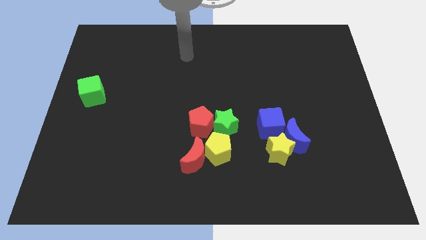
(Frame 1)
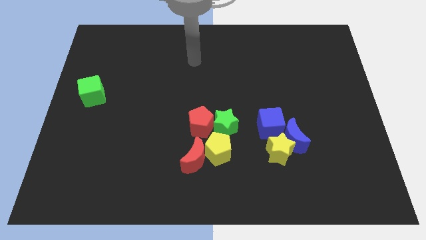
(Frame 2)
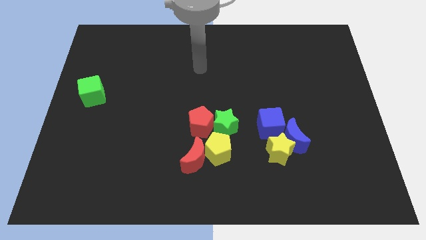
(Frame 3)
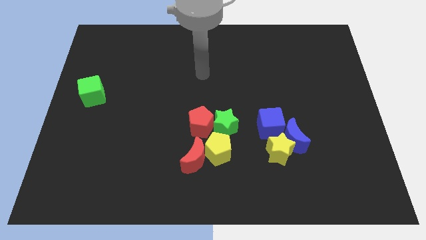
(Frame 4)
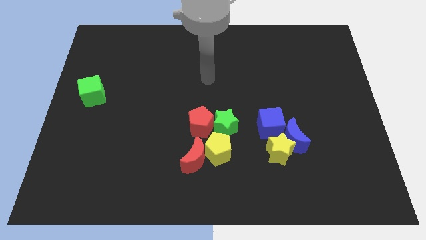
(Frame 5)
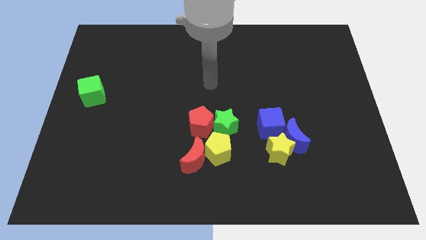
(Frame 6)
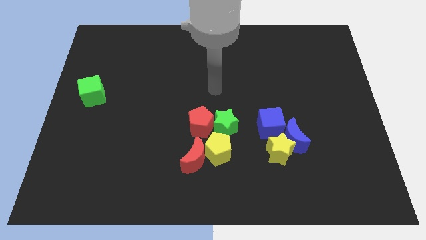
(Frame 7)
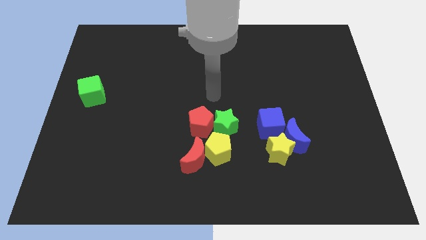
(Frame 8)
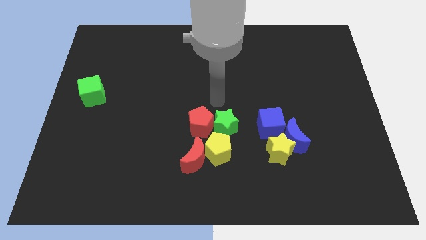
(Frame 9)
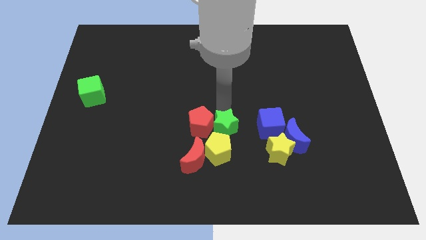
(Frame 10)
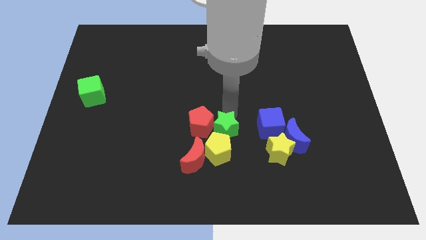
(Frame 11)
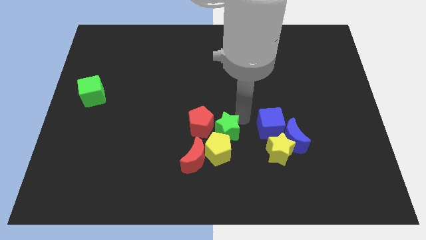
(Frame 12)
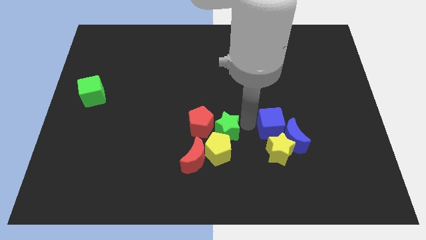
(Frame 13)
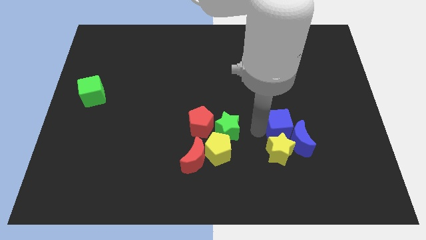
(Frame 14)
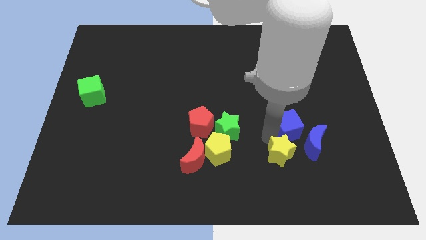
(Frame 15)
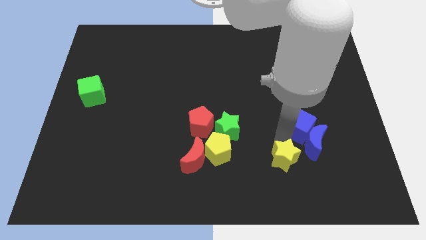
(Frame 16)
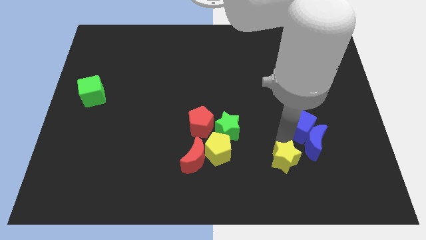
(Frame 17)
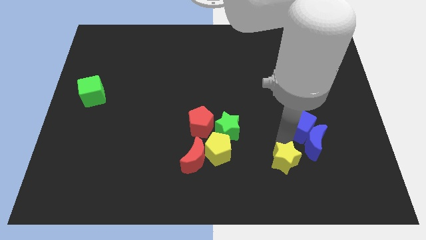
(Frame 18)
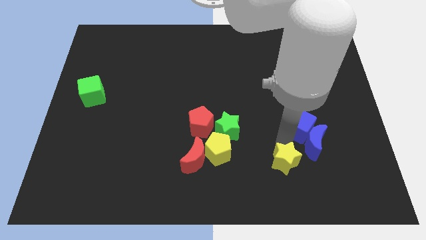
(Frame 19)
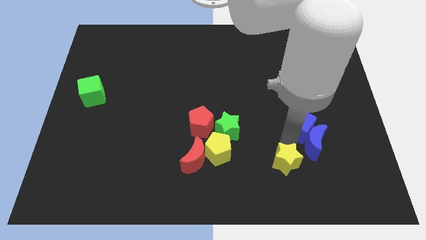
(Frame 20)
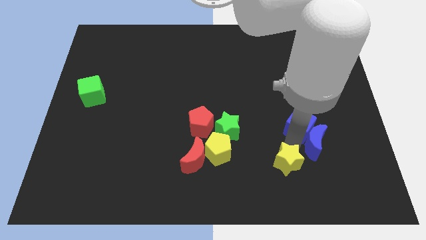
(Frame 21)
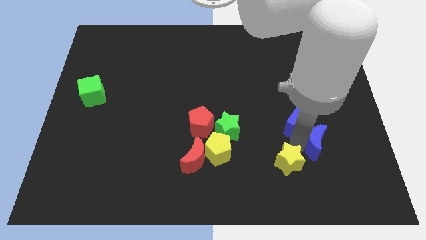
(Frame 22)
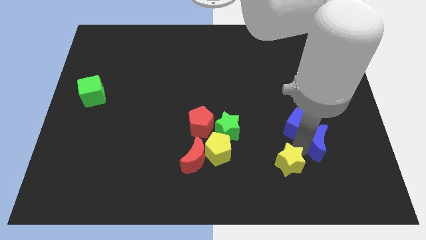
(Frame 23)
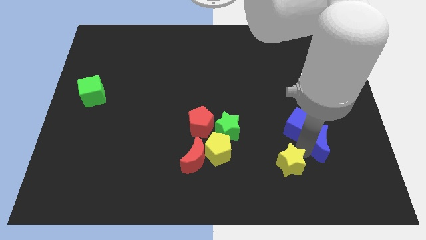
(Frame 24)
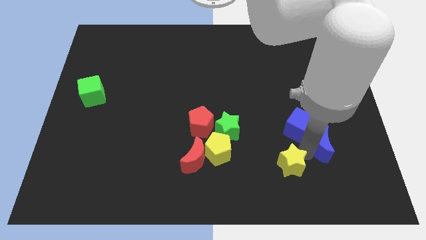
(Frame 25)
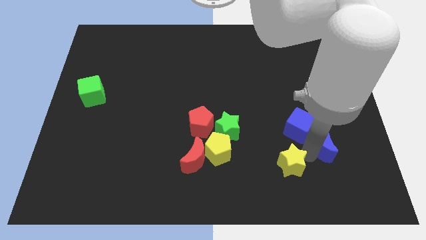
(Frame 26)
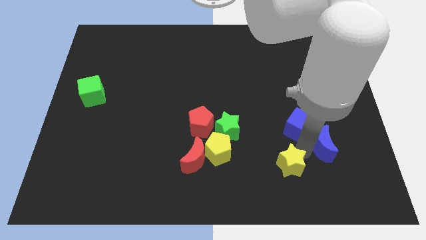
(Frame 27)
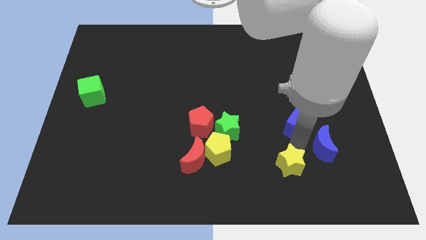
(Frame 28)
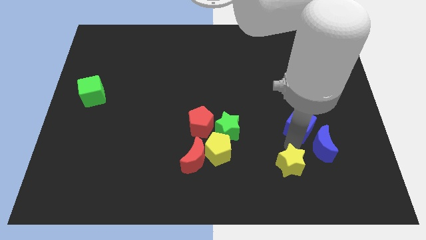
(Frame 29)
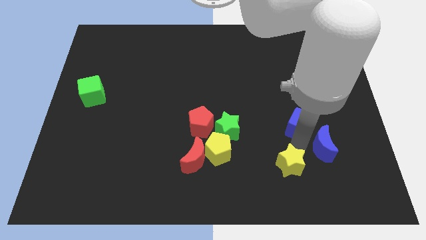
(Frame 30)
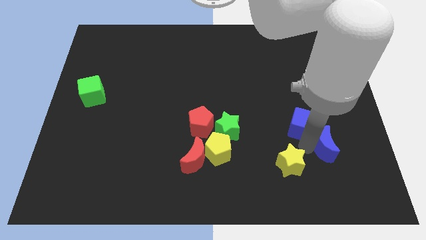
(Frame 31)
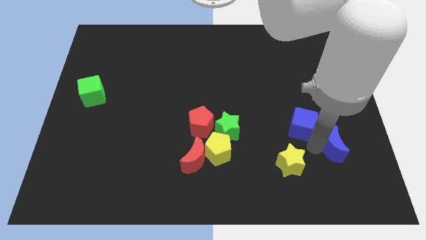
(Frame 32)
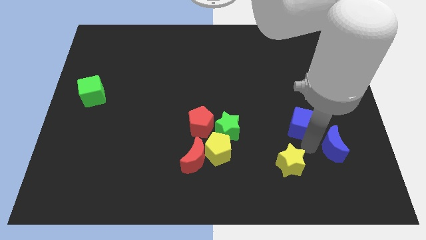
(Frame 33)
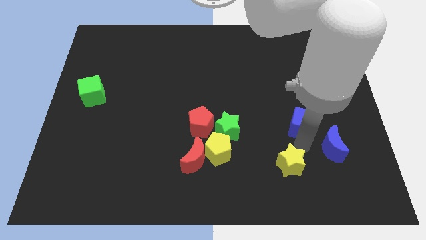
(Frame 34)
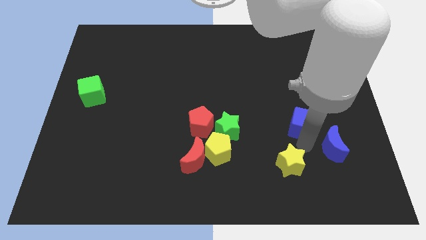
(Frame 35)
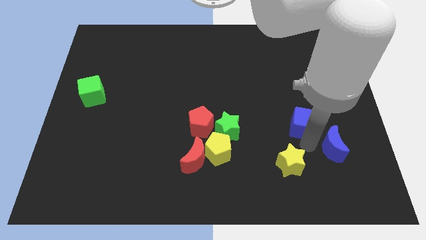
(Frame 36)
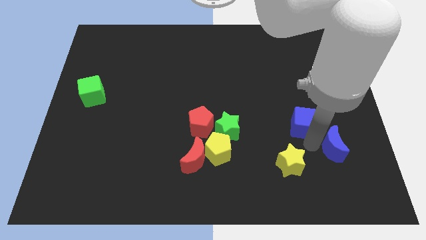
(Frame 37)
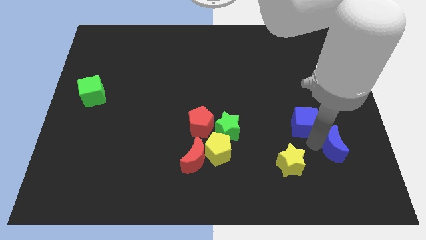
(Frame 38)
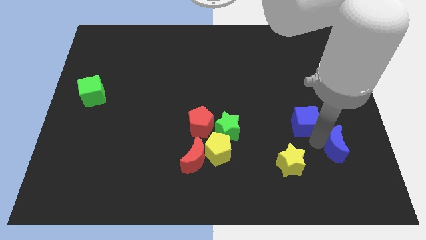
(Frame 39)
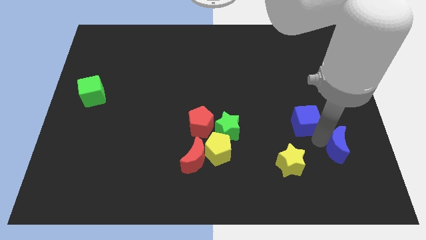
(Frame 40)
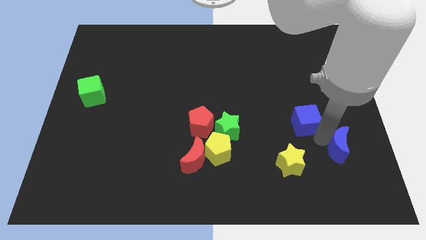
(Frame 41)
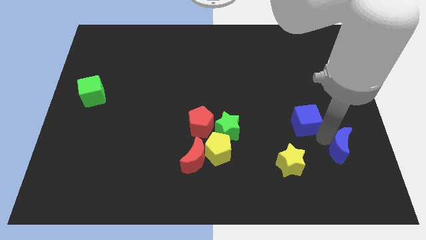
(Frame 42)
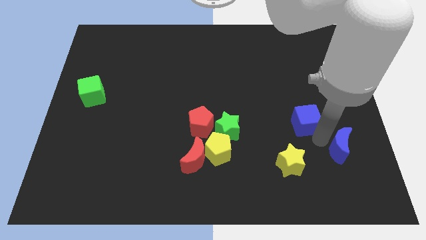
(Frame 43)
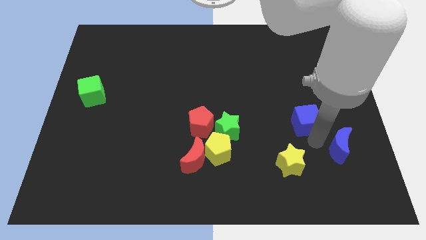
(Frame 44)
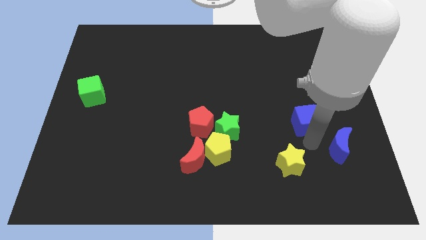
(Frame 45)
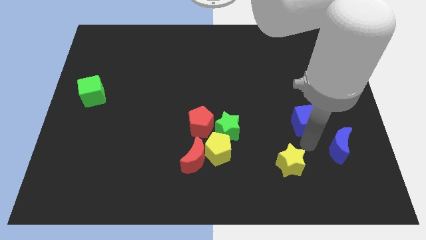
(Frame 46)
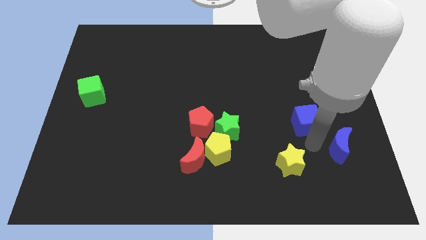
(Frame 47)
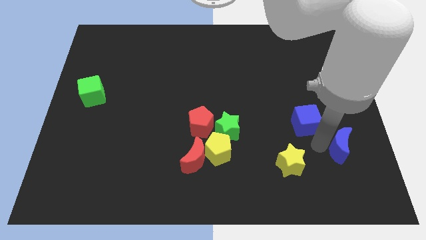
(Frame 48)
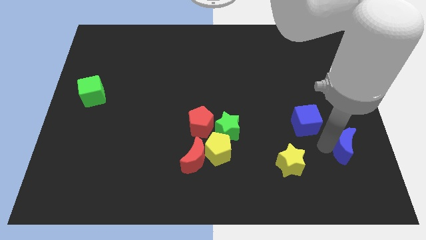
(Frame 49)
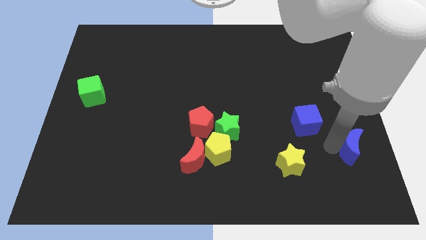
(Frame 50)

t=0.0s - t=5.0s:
separate the blue moon from the yellow star and blue cube

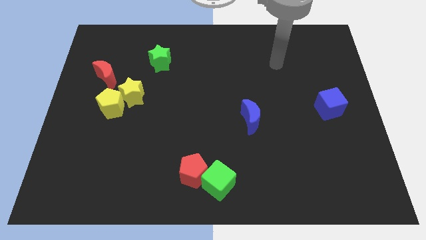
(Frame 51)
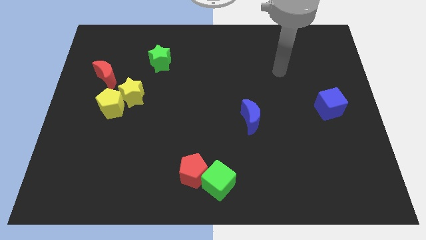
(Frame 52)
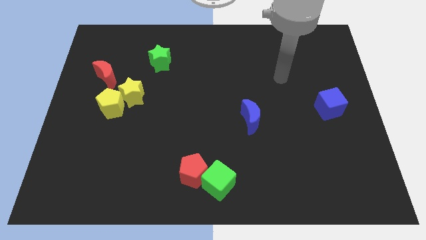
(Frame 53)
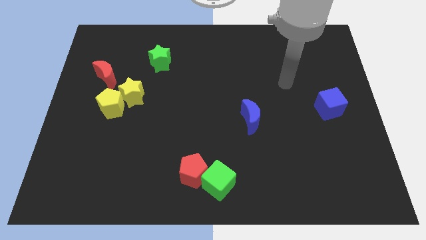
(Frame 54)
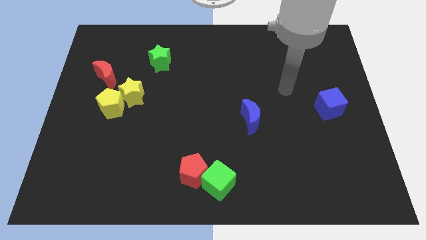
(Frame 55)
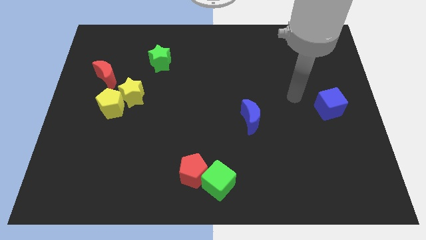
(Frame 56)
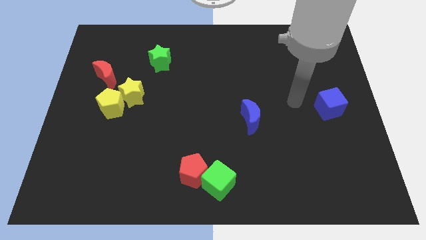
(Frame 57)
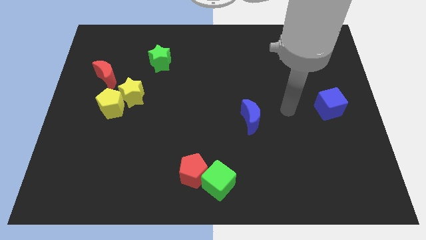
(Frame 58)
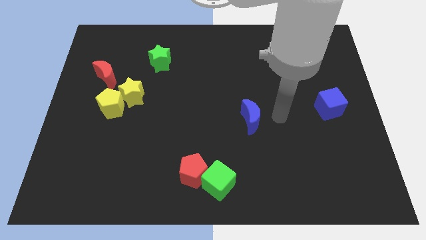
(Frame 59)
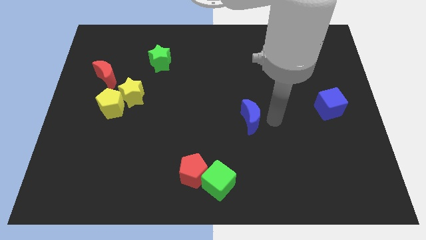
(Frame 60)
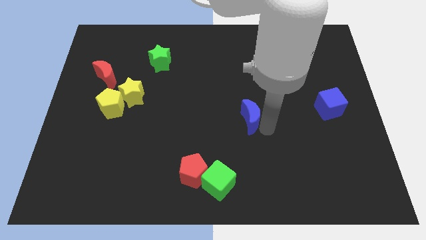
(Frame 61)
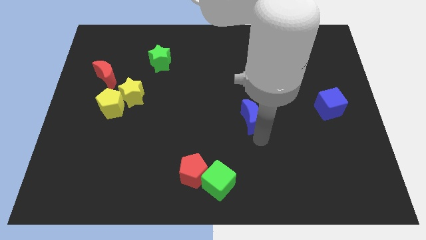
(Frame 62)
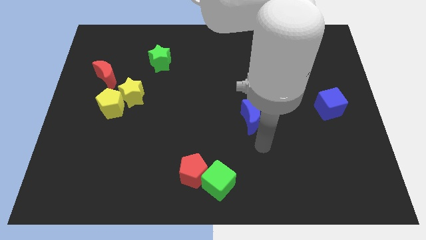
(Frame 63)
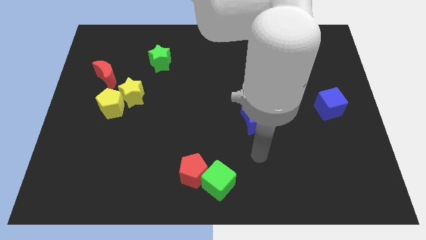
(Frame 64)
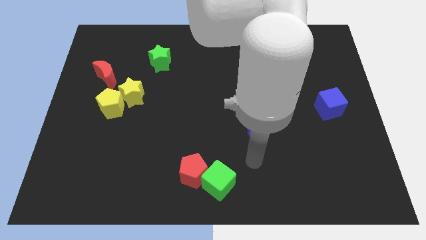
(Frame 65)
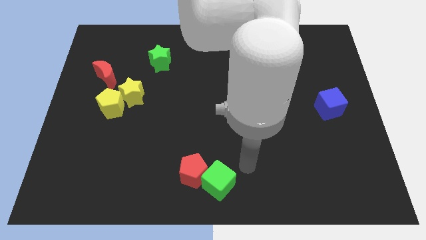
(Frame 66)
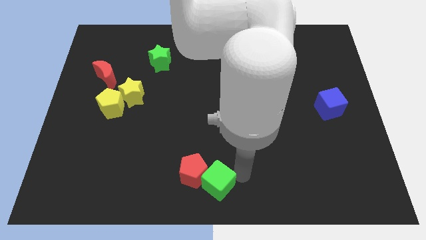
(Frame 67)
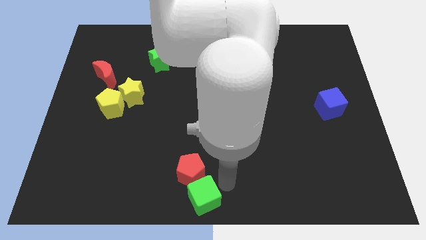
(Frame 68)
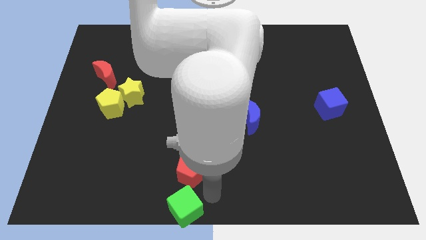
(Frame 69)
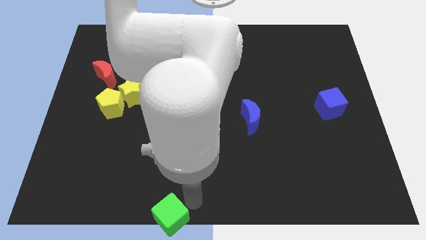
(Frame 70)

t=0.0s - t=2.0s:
pull the red pentagon apart from the green cube

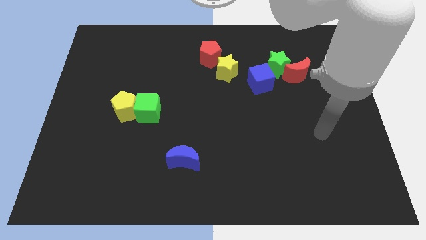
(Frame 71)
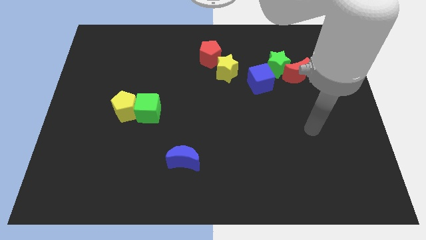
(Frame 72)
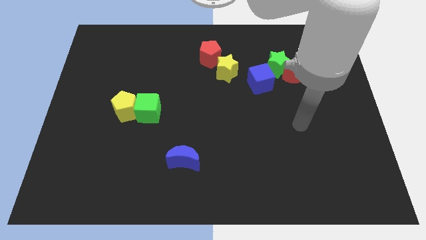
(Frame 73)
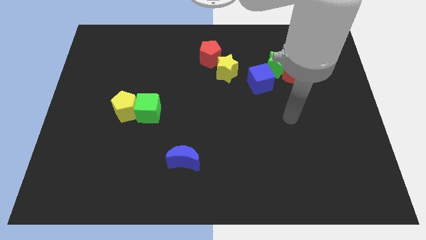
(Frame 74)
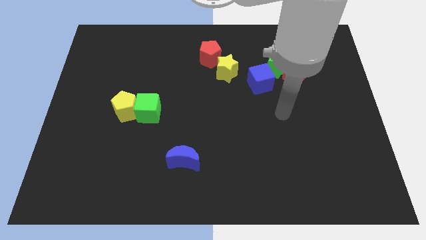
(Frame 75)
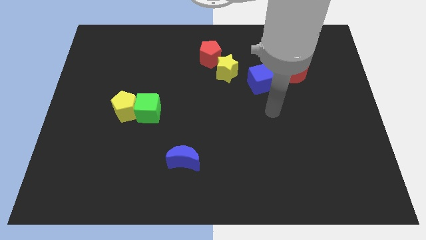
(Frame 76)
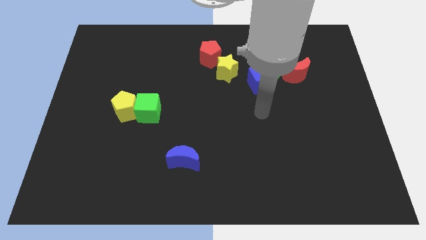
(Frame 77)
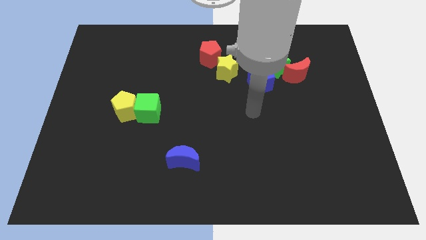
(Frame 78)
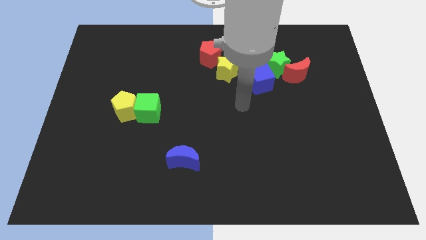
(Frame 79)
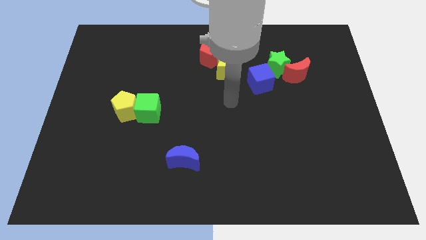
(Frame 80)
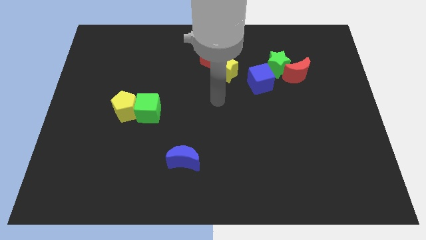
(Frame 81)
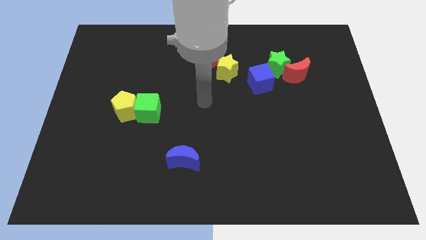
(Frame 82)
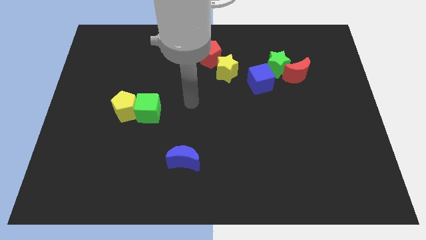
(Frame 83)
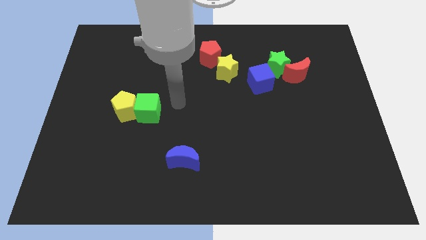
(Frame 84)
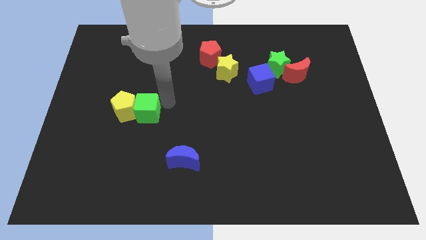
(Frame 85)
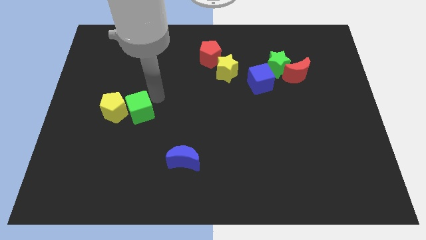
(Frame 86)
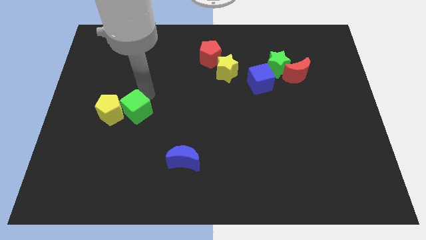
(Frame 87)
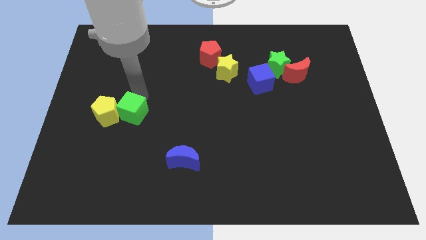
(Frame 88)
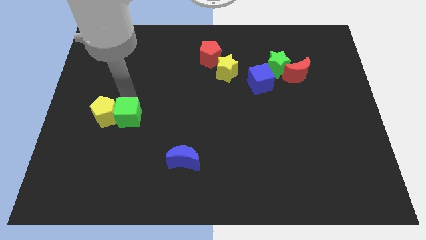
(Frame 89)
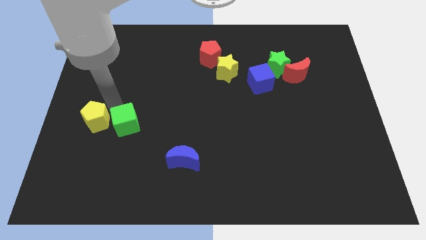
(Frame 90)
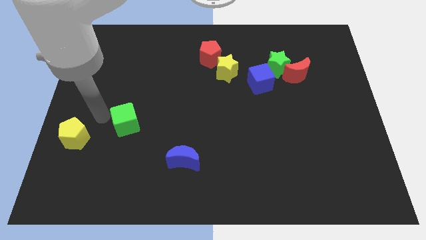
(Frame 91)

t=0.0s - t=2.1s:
separate the green cube from the yellow pentagon

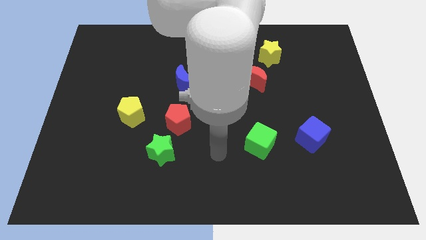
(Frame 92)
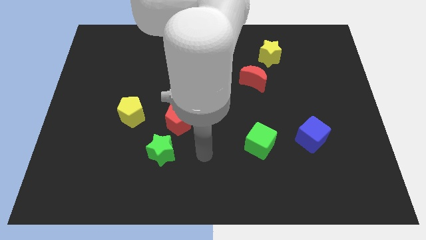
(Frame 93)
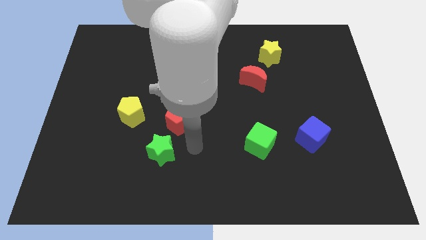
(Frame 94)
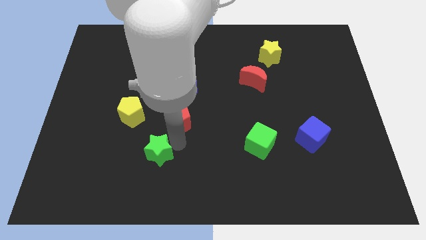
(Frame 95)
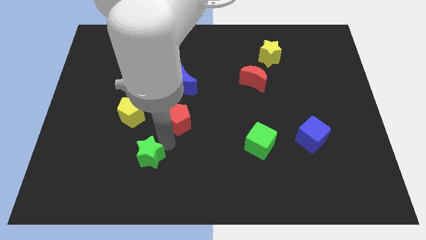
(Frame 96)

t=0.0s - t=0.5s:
pull the red pentagon apart from the green star
